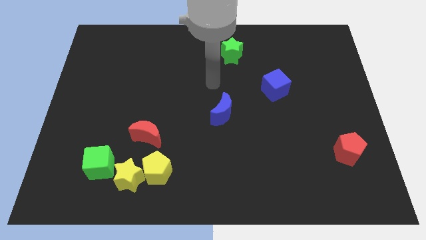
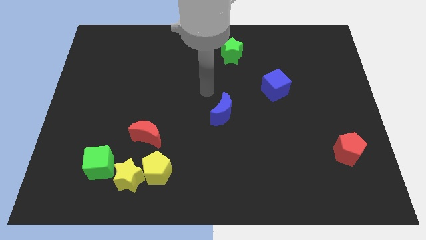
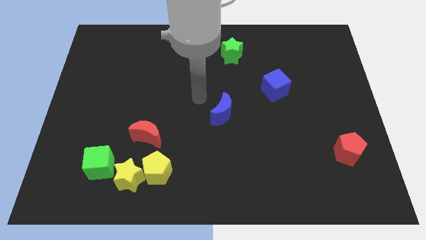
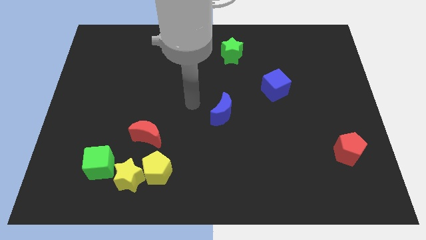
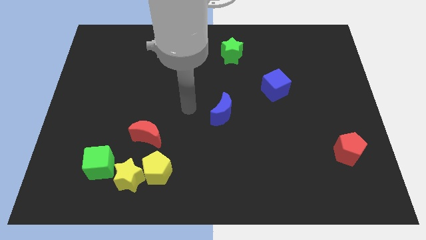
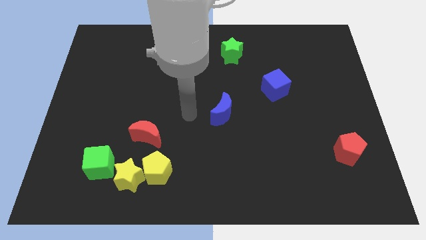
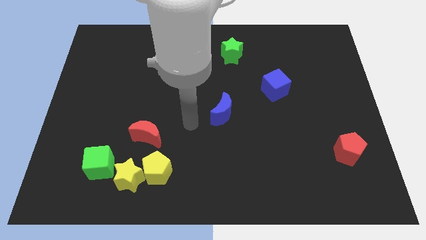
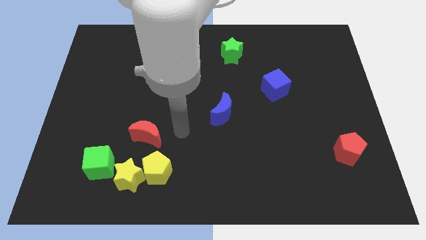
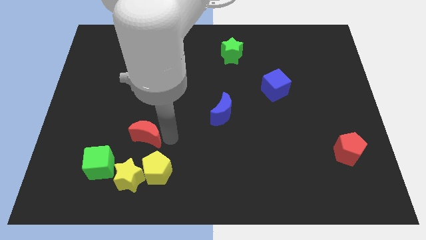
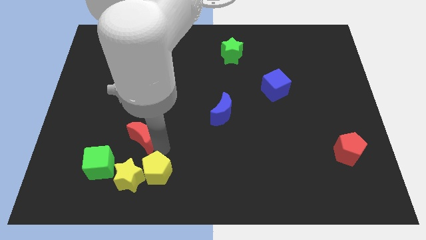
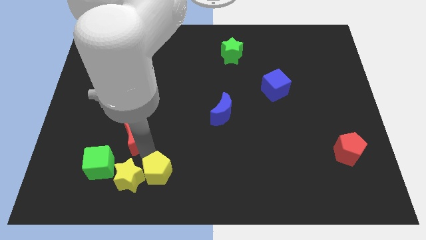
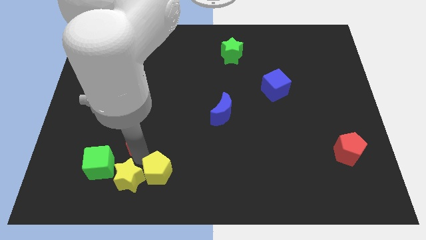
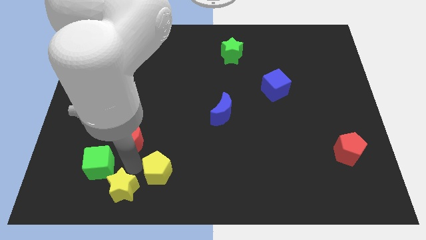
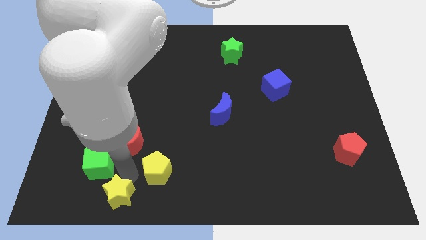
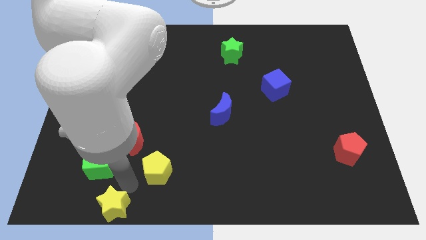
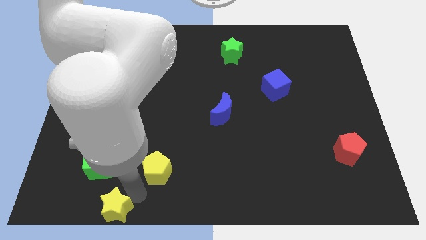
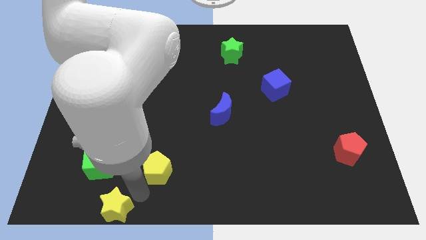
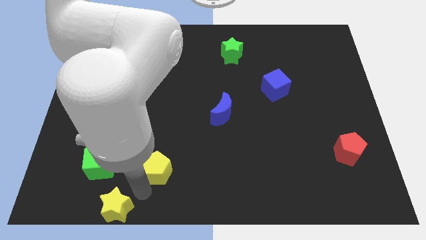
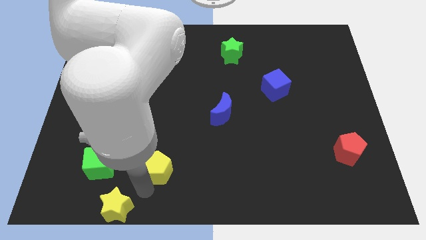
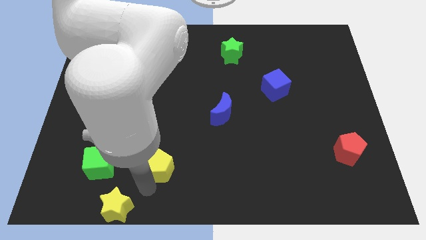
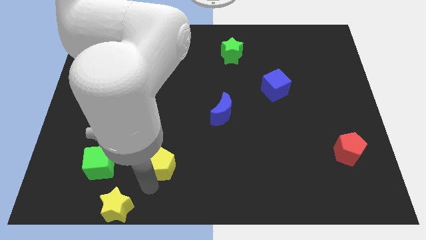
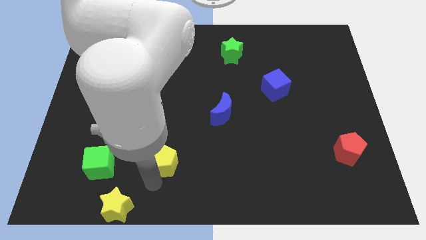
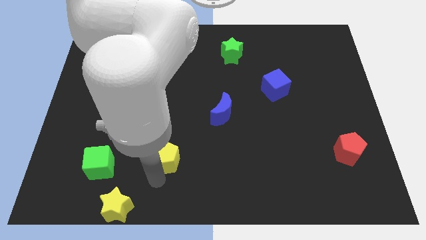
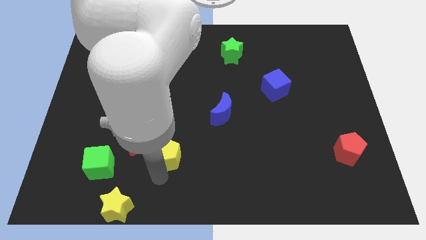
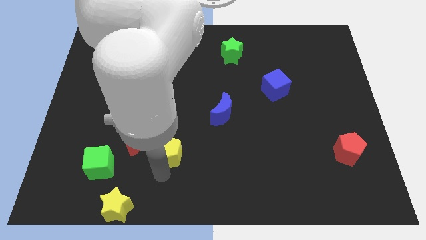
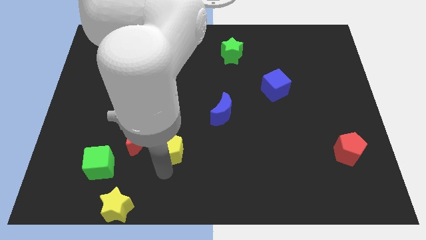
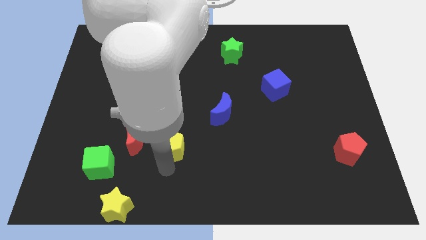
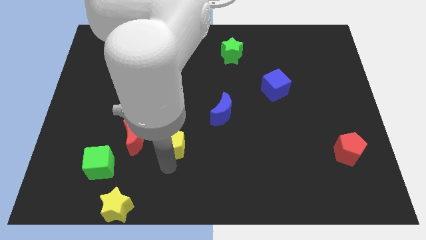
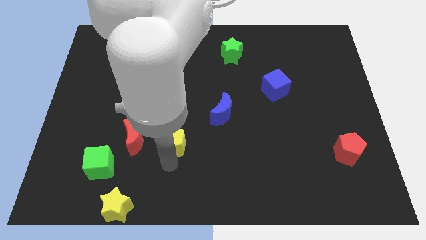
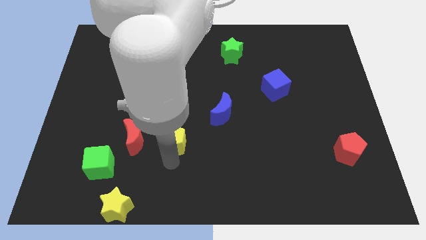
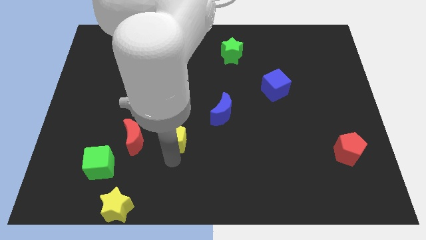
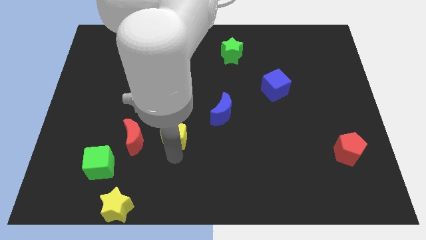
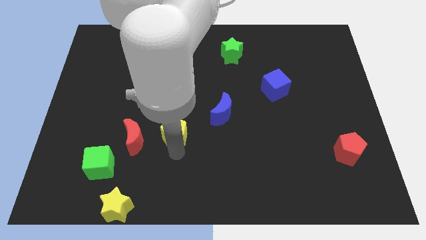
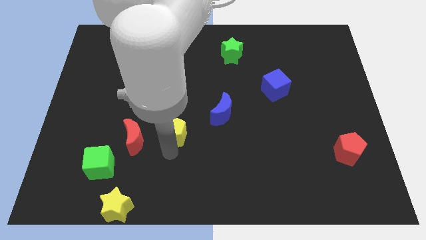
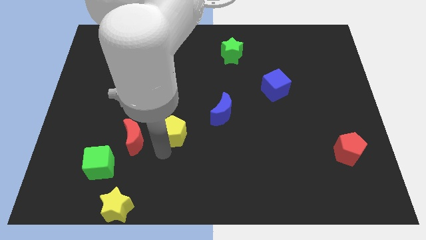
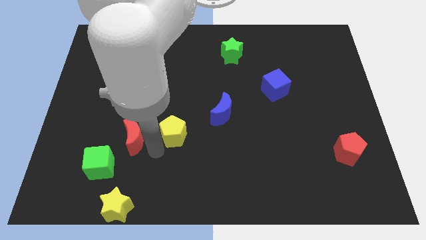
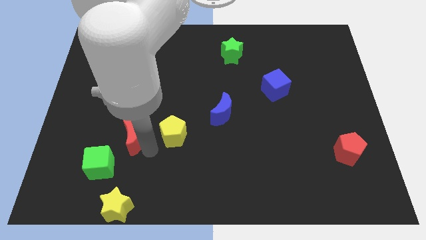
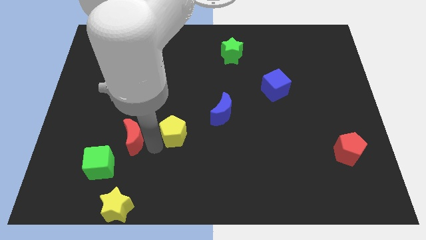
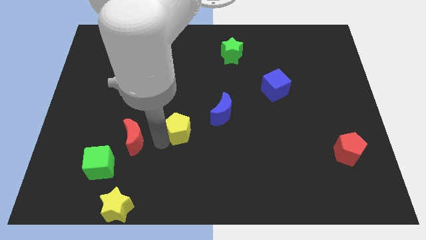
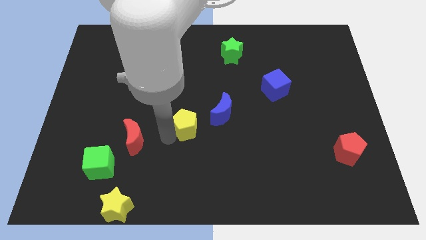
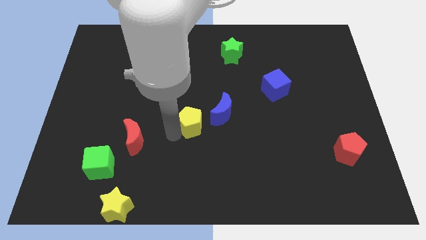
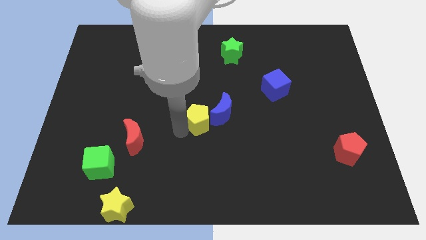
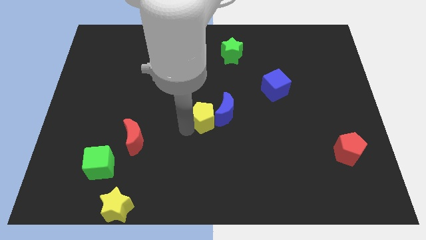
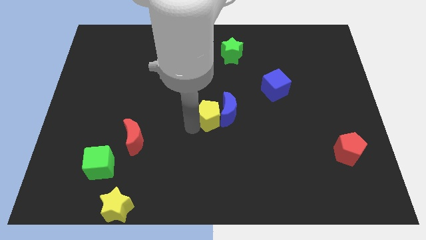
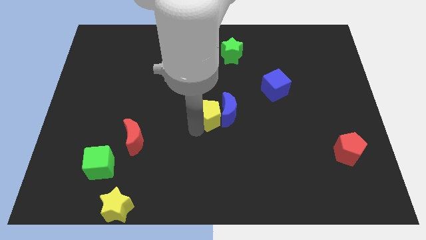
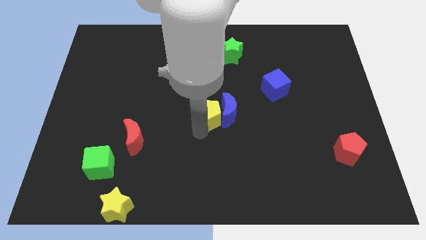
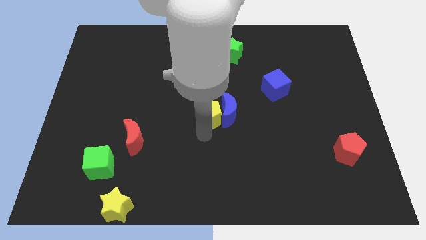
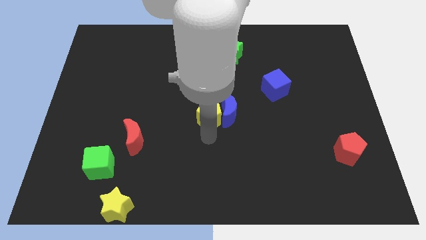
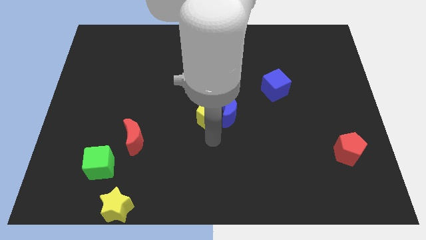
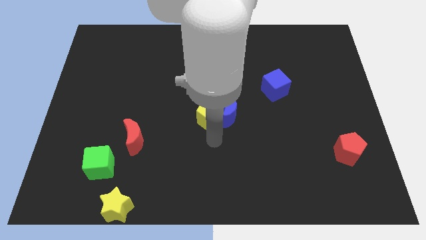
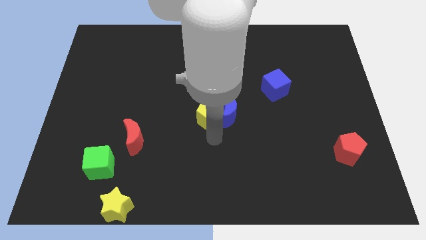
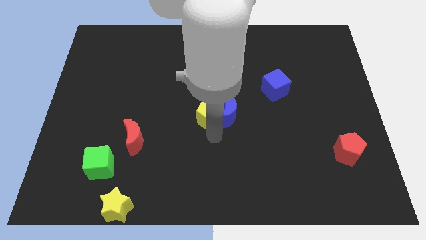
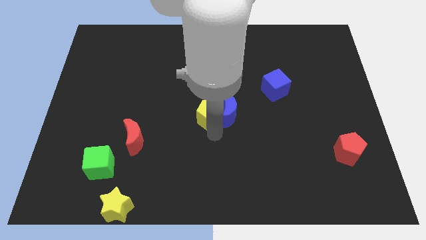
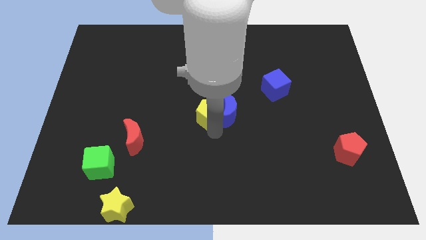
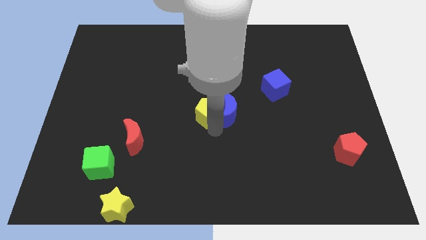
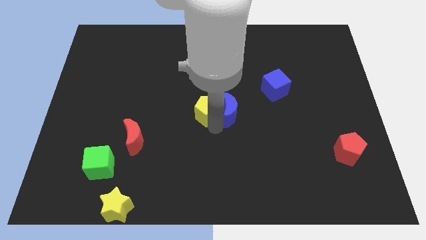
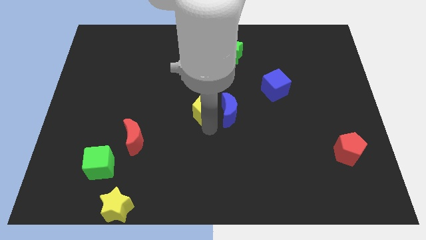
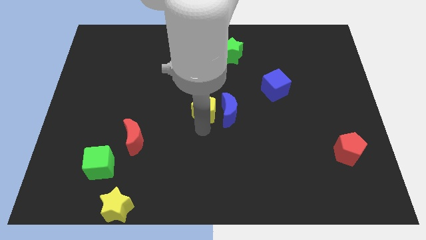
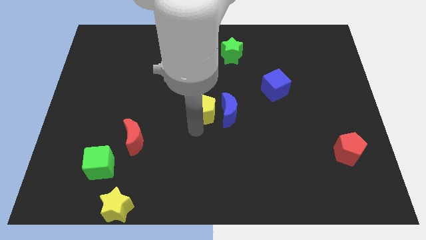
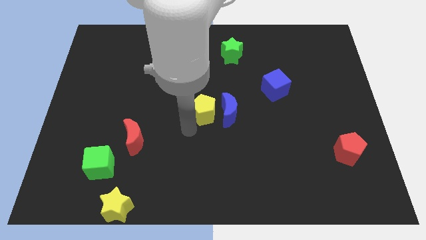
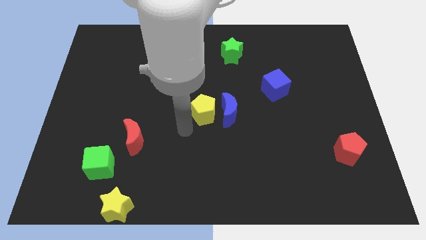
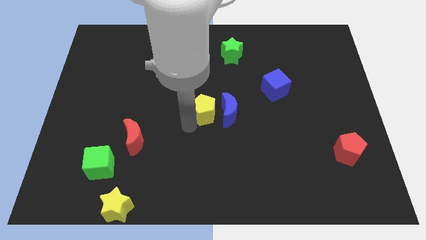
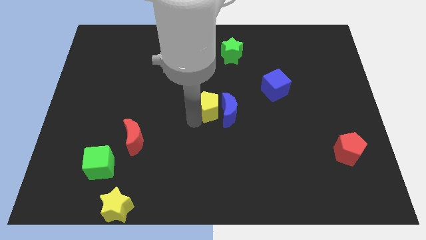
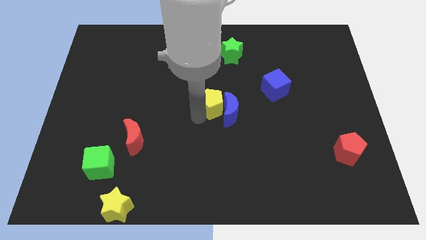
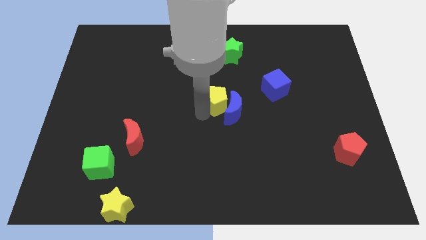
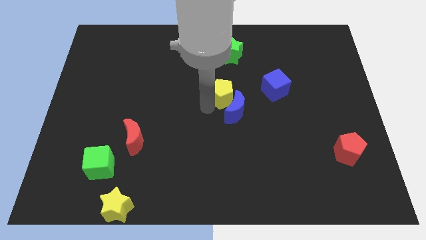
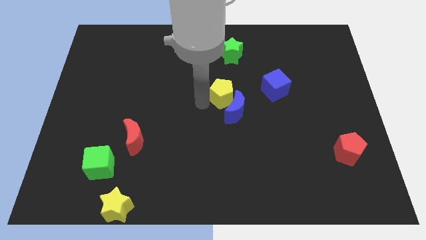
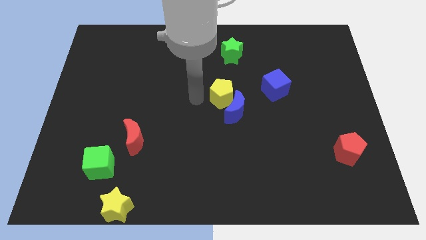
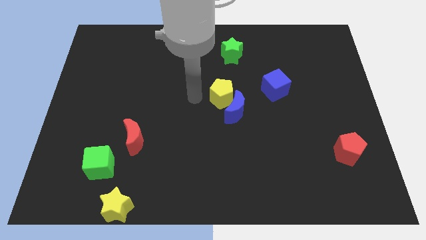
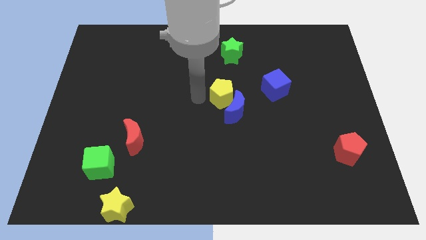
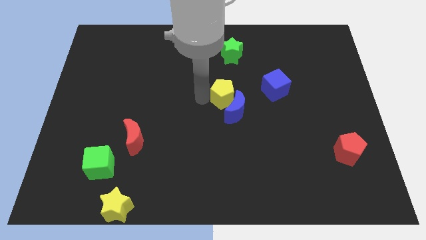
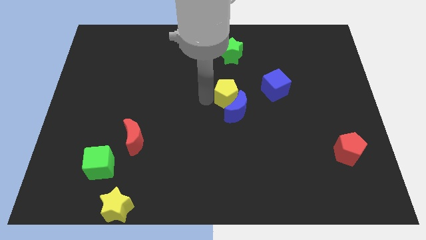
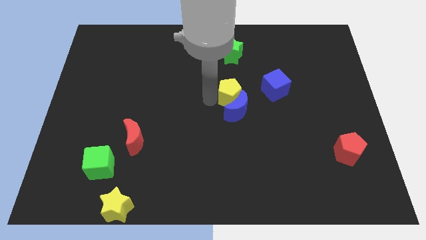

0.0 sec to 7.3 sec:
slide the yellow pentagon to the top right side of the blue moon
